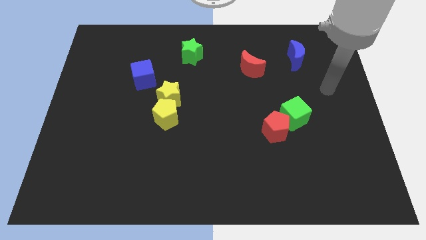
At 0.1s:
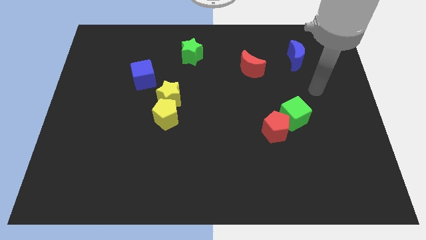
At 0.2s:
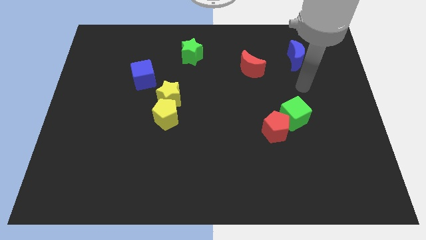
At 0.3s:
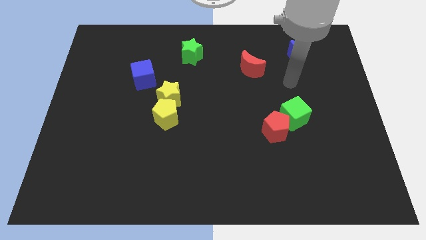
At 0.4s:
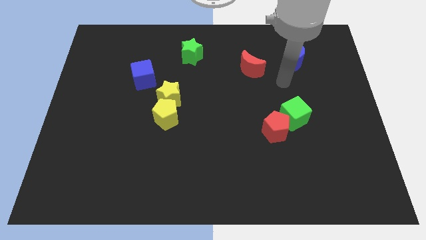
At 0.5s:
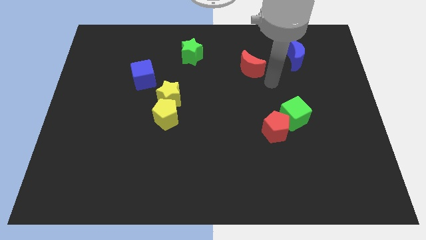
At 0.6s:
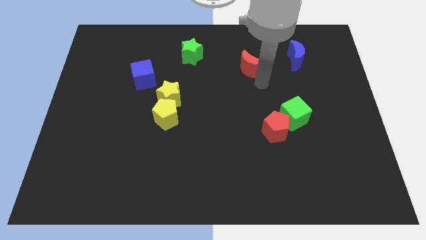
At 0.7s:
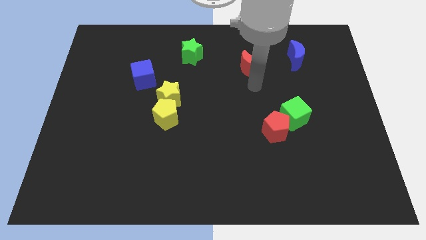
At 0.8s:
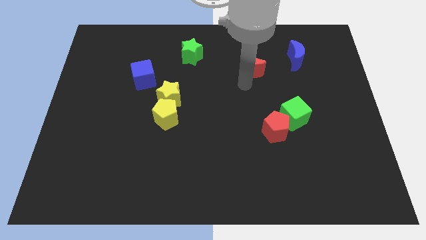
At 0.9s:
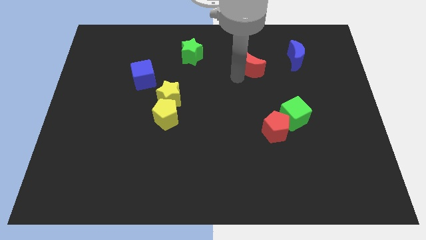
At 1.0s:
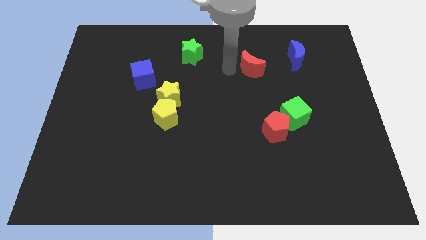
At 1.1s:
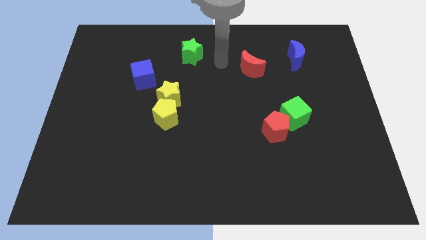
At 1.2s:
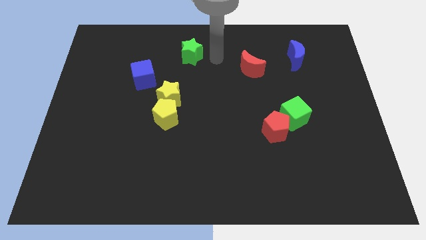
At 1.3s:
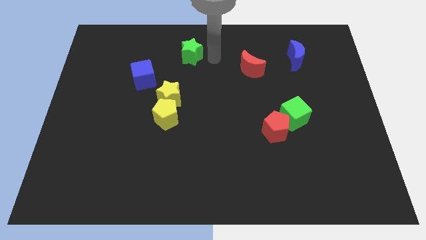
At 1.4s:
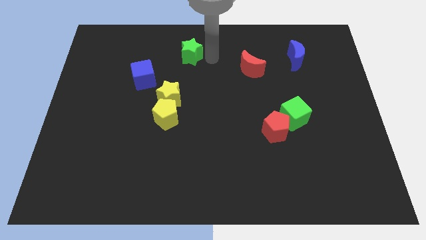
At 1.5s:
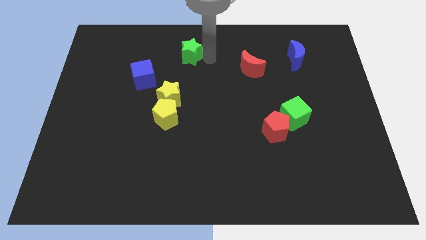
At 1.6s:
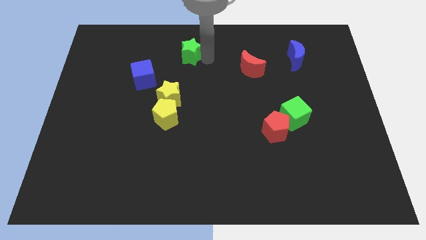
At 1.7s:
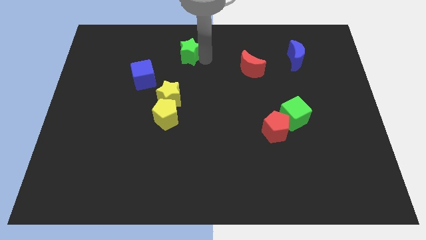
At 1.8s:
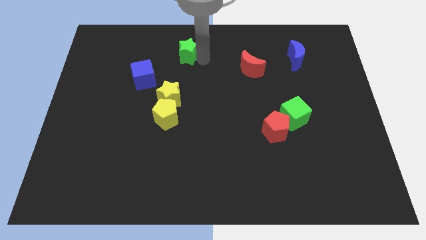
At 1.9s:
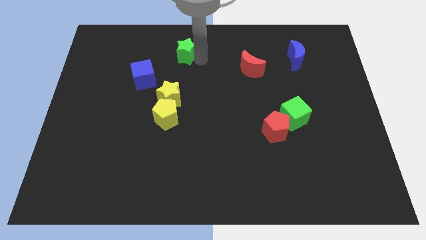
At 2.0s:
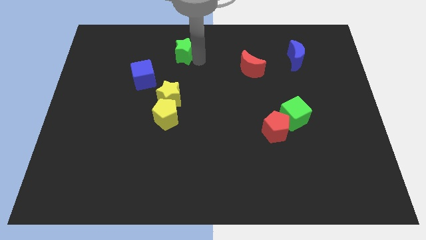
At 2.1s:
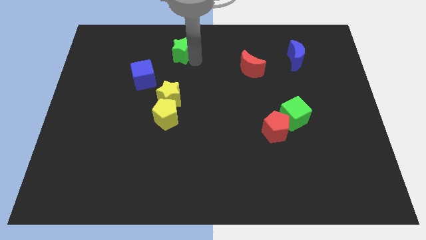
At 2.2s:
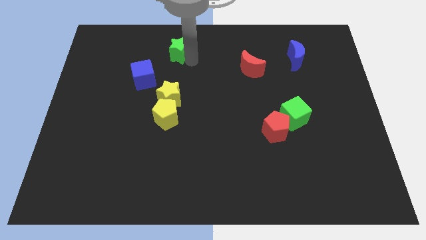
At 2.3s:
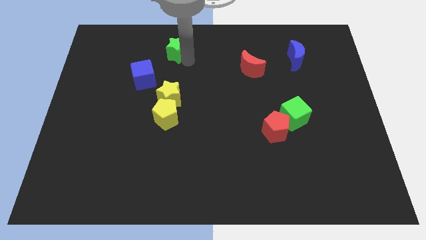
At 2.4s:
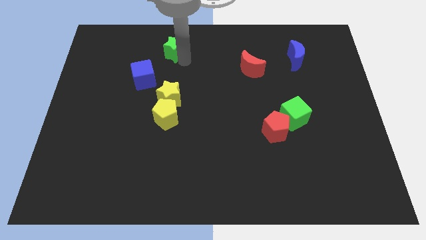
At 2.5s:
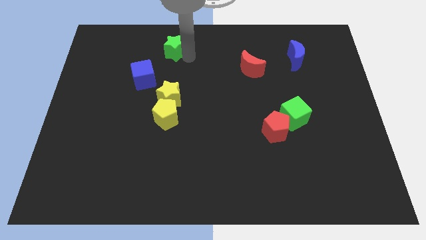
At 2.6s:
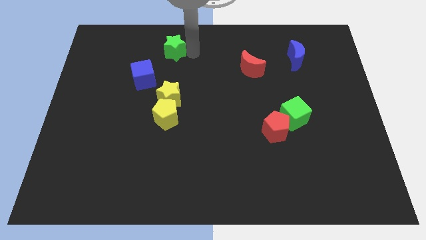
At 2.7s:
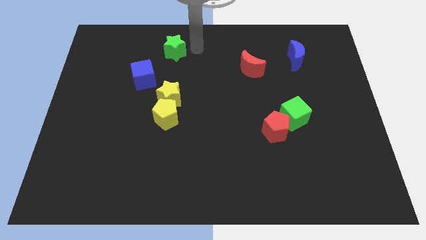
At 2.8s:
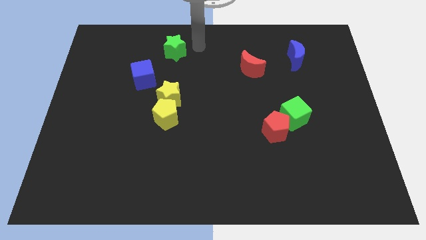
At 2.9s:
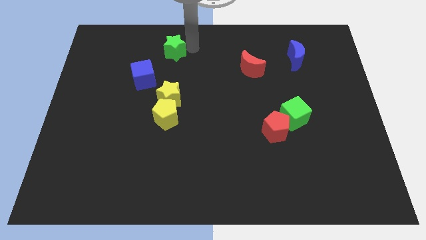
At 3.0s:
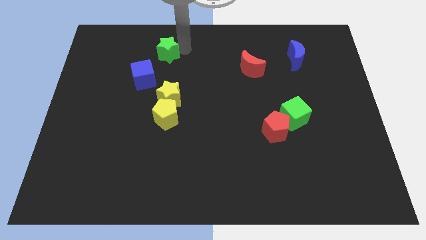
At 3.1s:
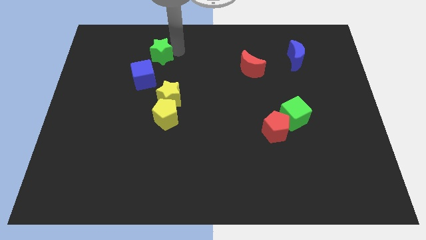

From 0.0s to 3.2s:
slide the green star to the left a little bit

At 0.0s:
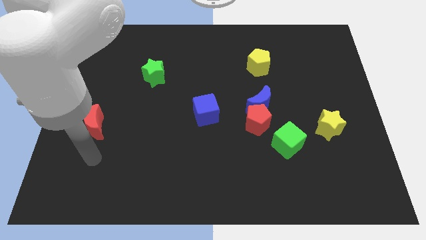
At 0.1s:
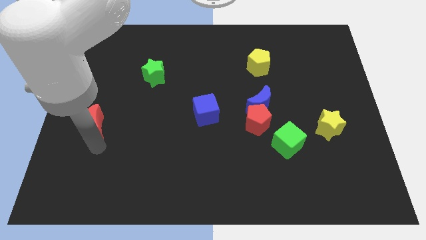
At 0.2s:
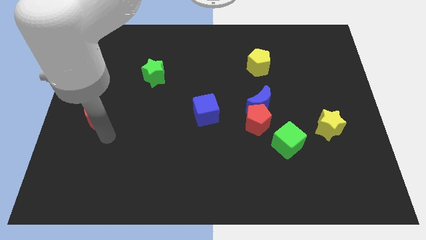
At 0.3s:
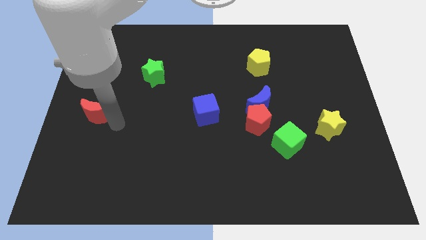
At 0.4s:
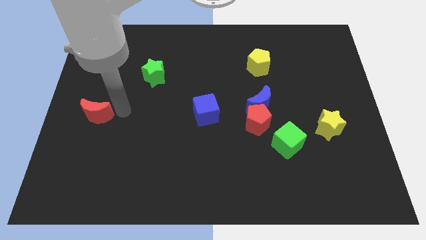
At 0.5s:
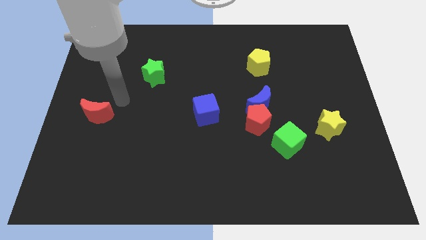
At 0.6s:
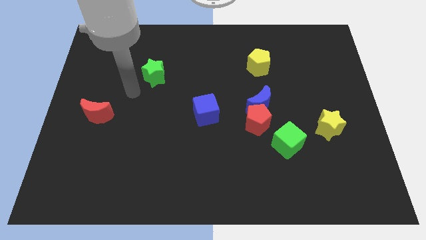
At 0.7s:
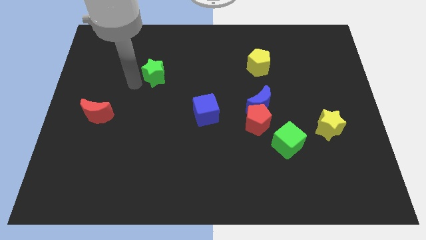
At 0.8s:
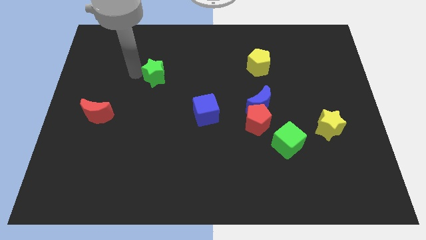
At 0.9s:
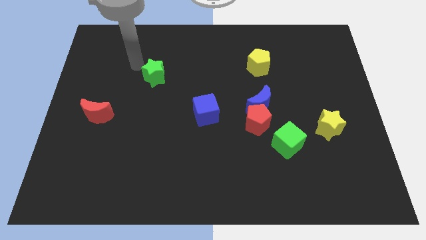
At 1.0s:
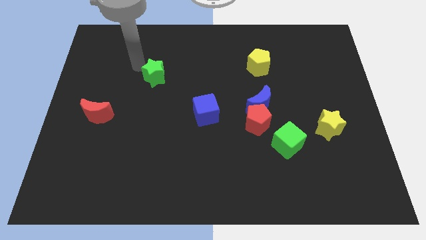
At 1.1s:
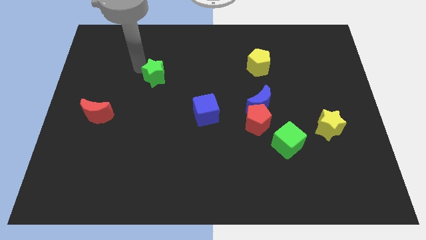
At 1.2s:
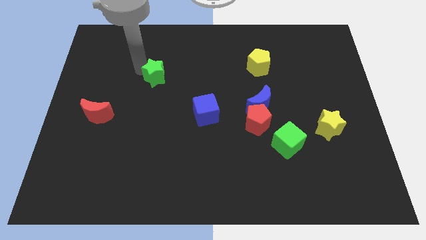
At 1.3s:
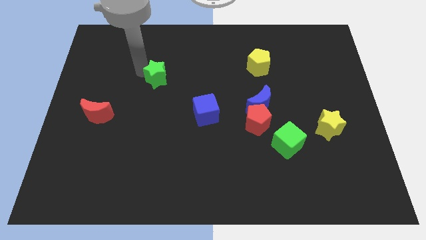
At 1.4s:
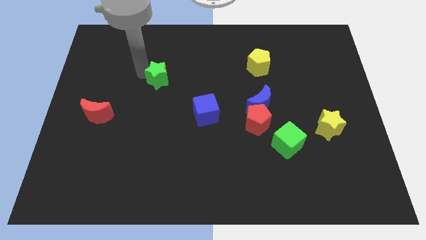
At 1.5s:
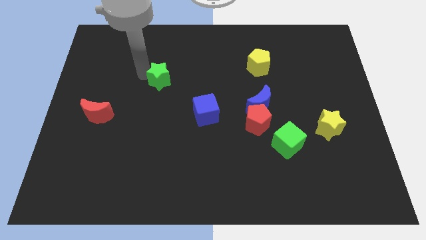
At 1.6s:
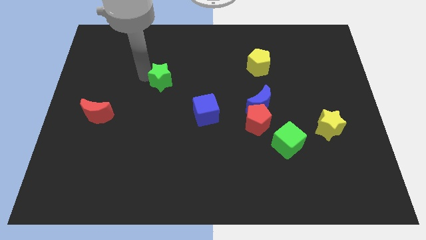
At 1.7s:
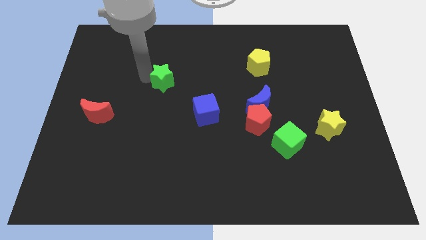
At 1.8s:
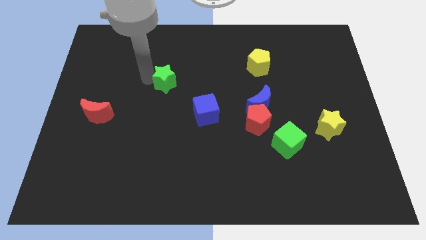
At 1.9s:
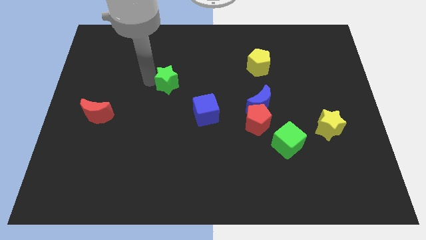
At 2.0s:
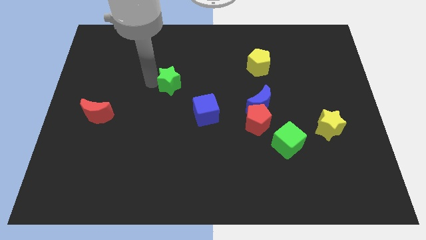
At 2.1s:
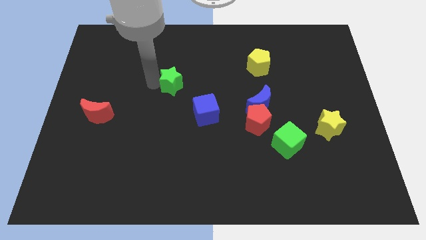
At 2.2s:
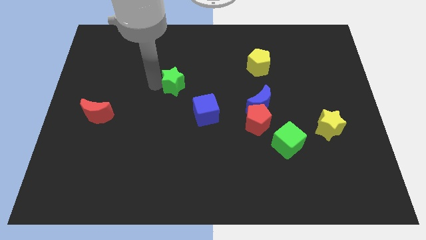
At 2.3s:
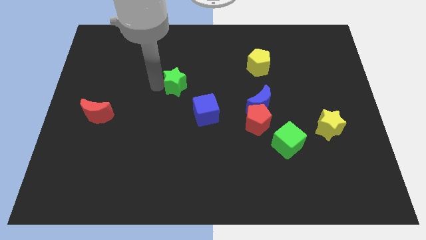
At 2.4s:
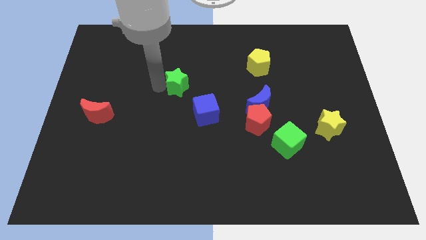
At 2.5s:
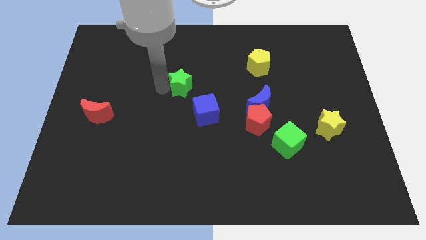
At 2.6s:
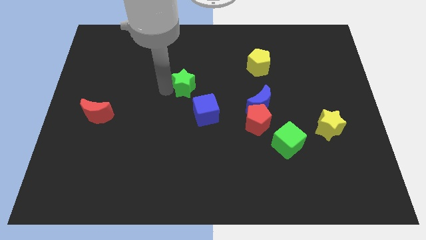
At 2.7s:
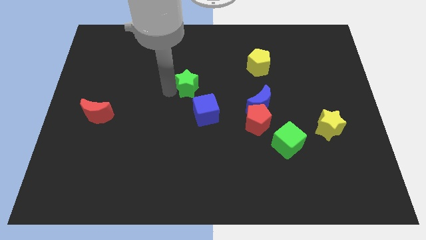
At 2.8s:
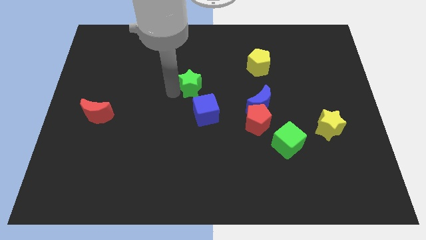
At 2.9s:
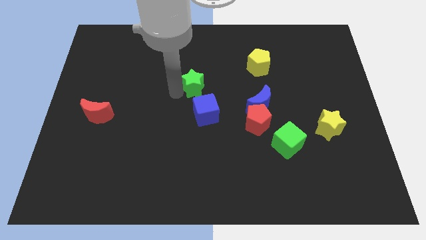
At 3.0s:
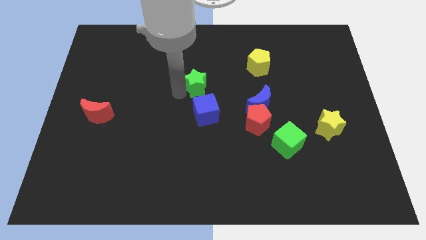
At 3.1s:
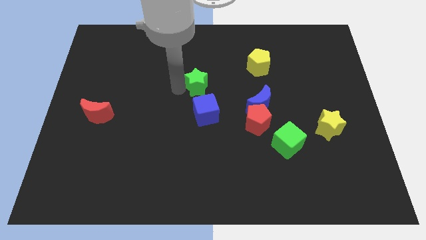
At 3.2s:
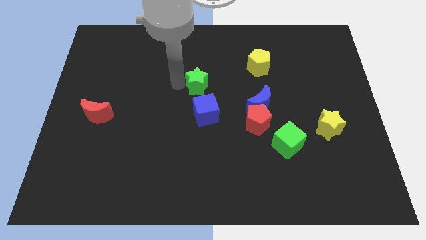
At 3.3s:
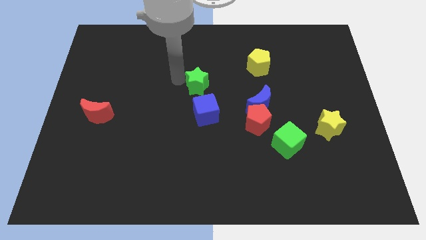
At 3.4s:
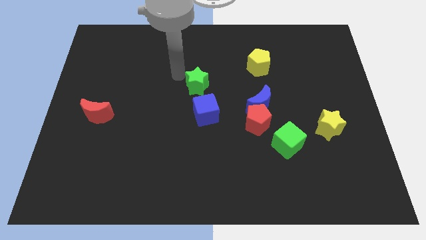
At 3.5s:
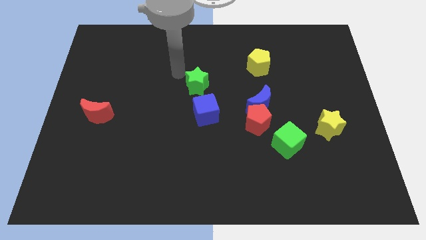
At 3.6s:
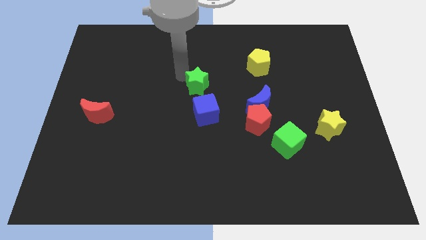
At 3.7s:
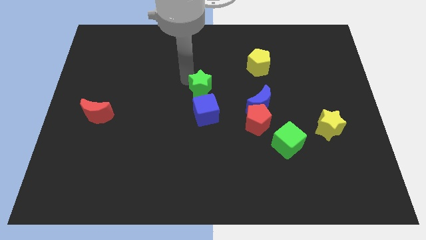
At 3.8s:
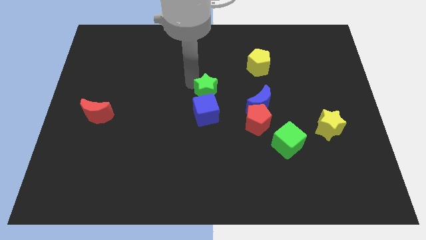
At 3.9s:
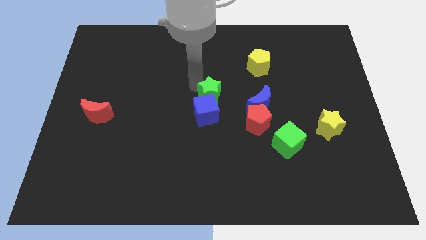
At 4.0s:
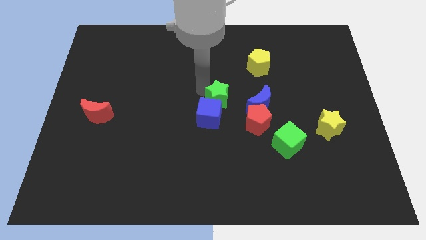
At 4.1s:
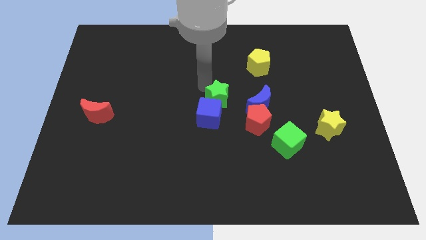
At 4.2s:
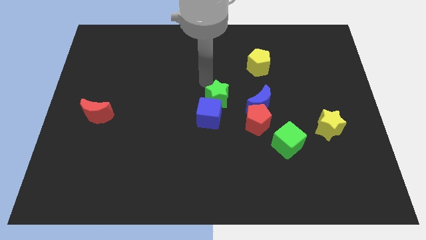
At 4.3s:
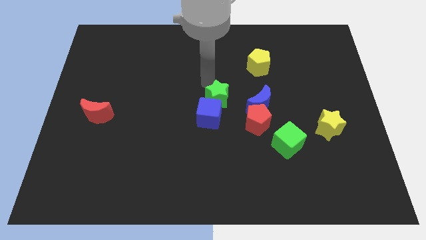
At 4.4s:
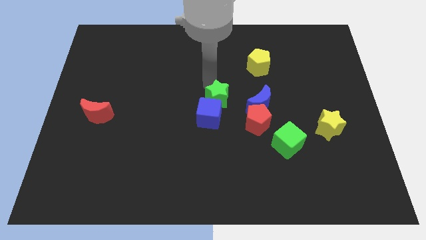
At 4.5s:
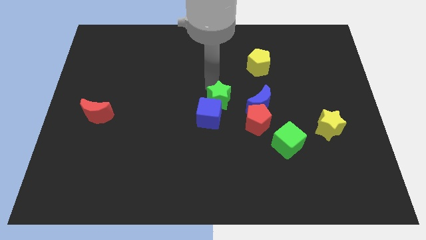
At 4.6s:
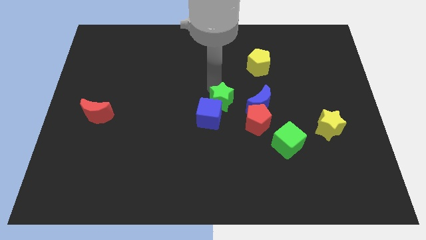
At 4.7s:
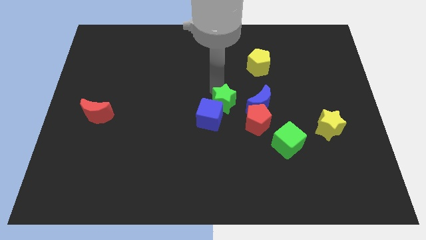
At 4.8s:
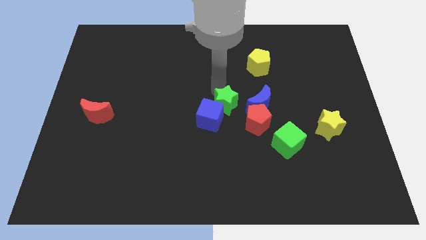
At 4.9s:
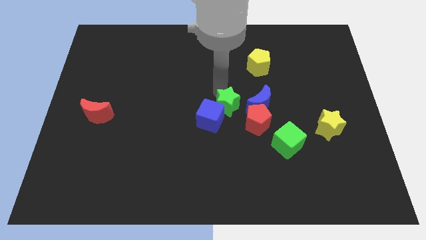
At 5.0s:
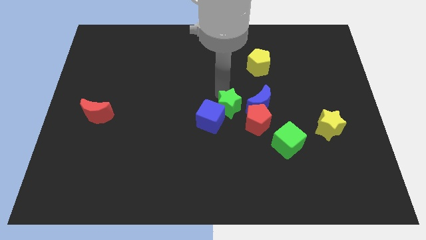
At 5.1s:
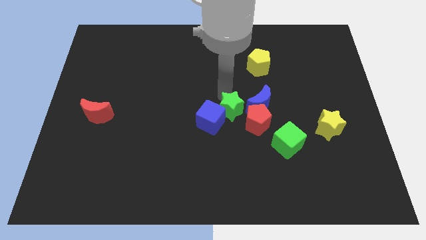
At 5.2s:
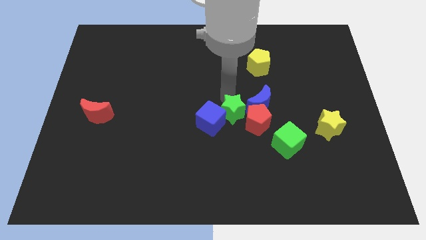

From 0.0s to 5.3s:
push the green star diagonally downwards and right
